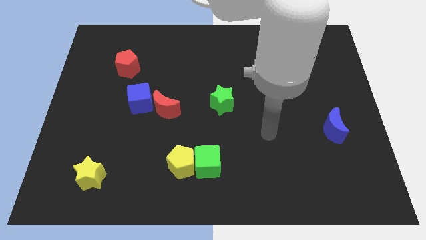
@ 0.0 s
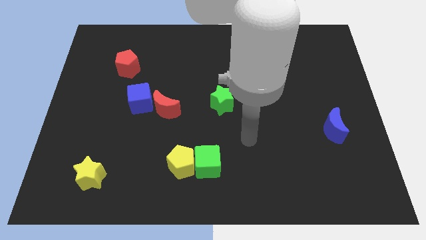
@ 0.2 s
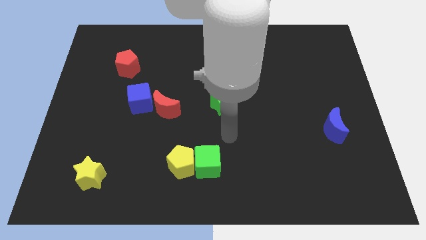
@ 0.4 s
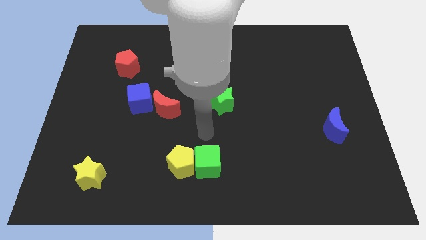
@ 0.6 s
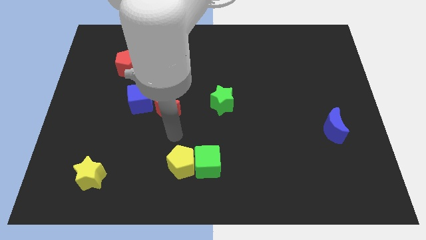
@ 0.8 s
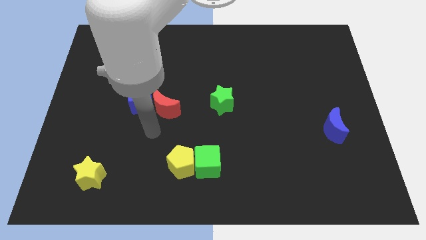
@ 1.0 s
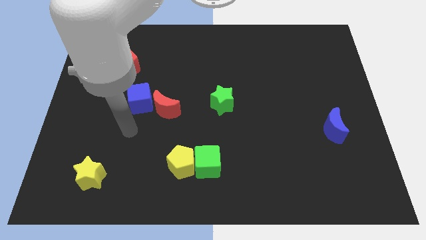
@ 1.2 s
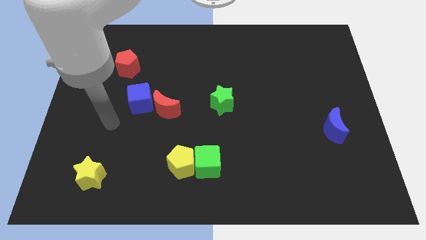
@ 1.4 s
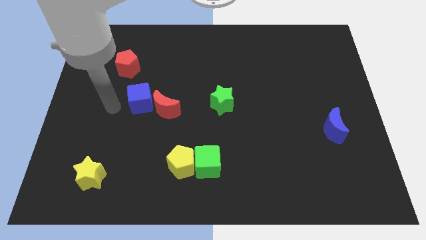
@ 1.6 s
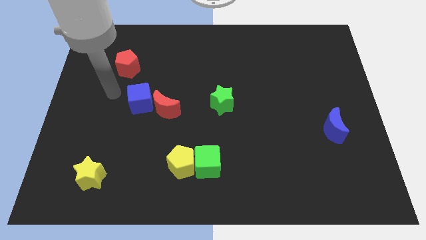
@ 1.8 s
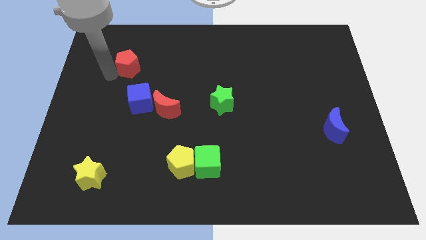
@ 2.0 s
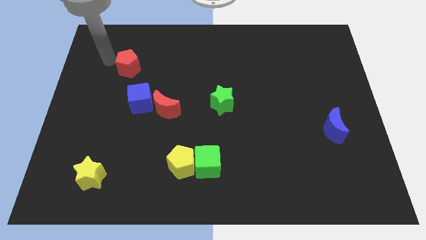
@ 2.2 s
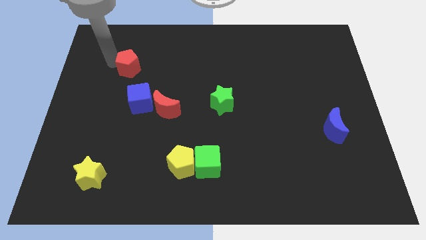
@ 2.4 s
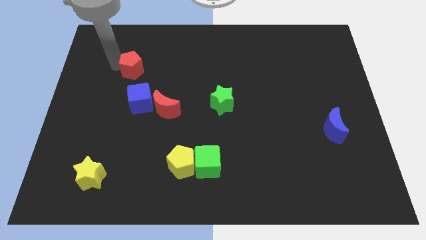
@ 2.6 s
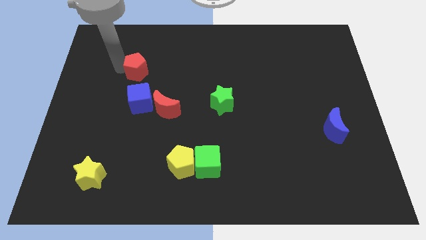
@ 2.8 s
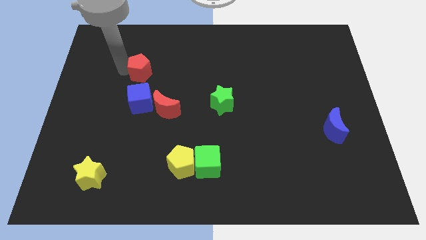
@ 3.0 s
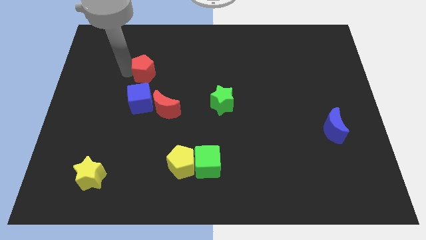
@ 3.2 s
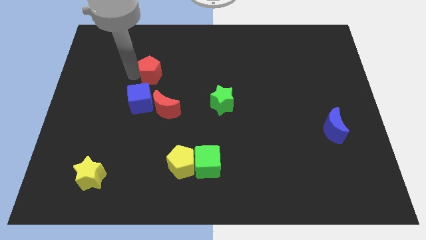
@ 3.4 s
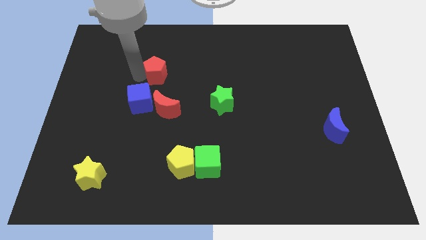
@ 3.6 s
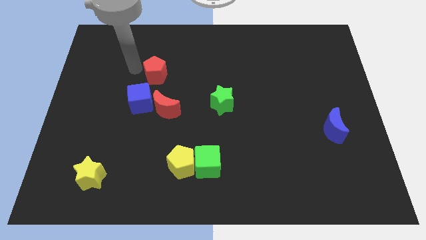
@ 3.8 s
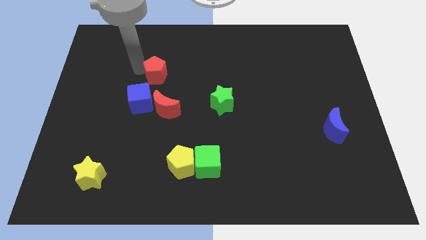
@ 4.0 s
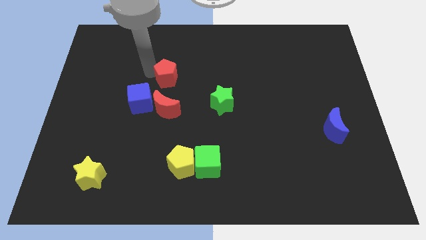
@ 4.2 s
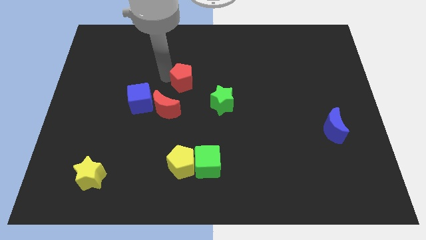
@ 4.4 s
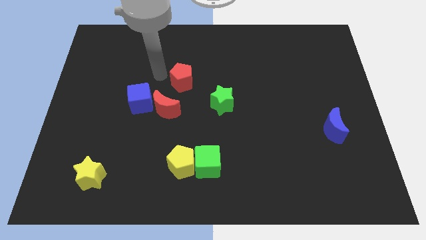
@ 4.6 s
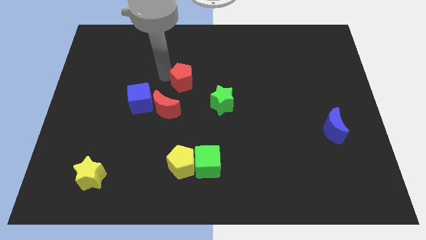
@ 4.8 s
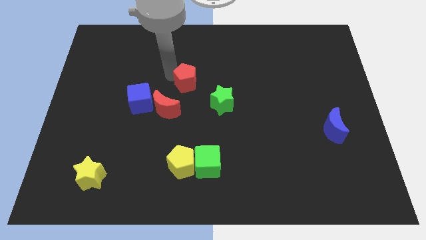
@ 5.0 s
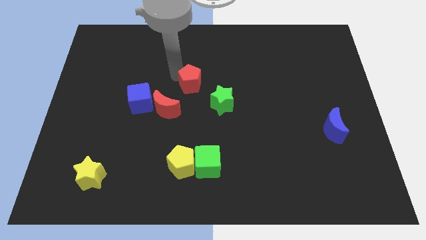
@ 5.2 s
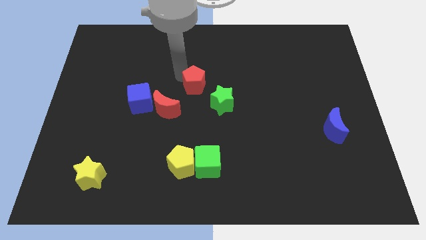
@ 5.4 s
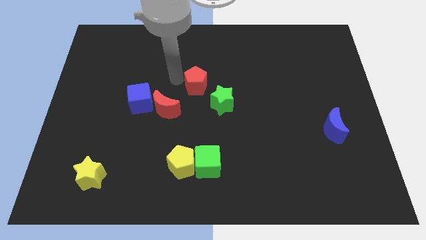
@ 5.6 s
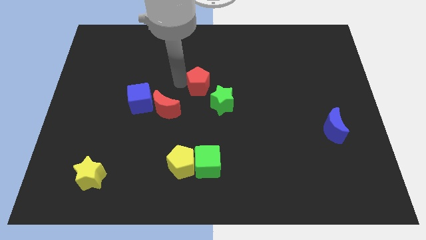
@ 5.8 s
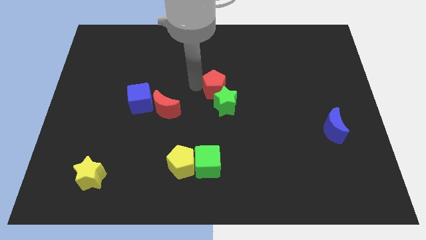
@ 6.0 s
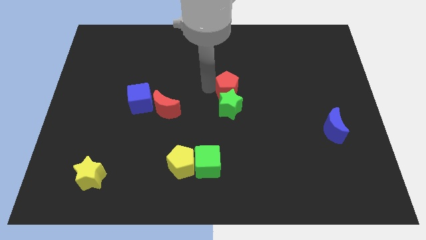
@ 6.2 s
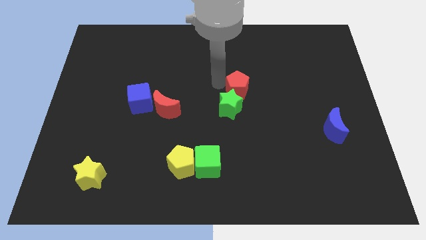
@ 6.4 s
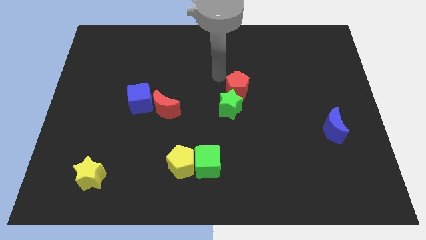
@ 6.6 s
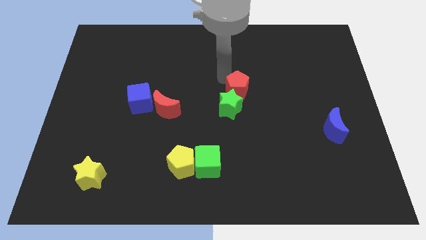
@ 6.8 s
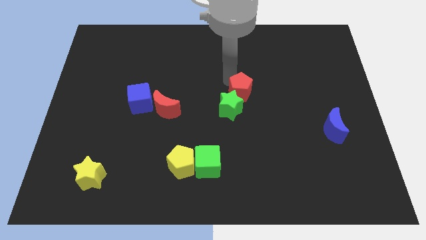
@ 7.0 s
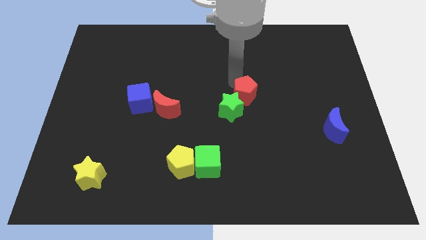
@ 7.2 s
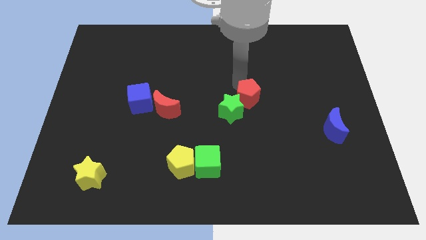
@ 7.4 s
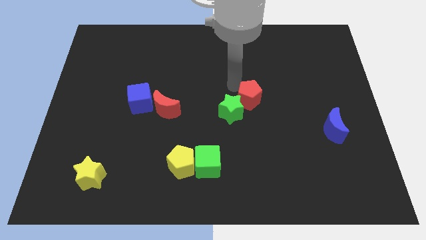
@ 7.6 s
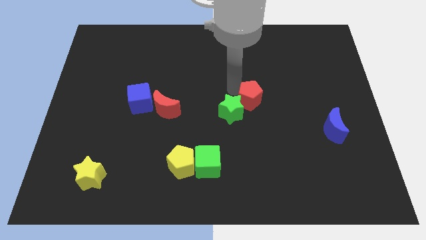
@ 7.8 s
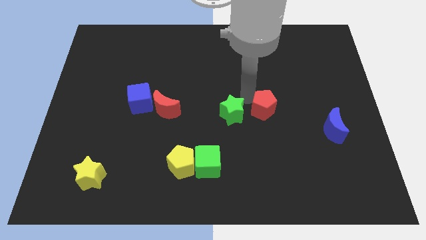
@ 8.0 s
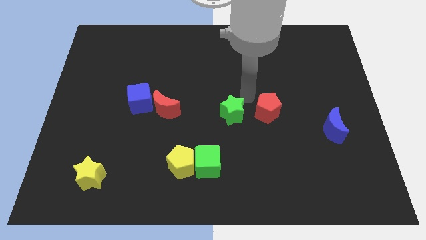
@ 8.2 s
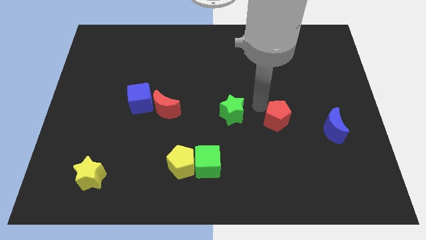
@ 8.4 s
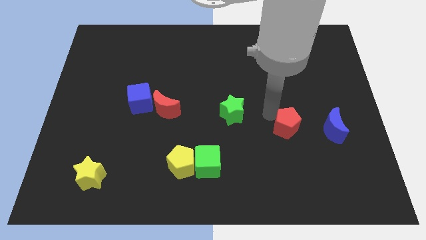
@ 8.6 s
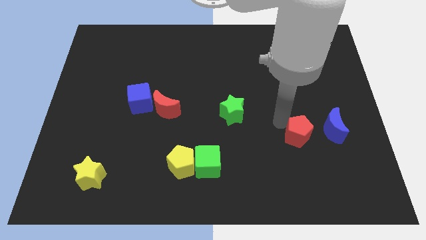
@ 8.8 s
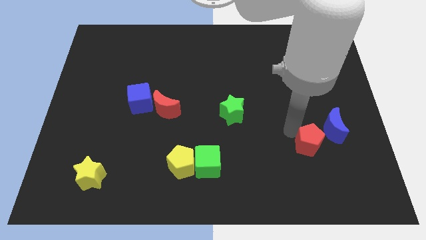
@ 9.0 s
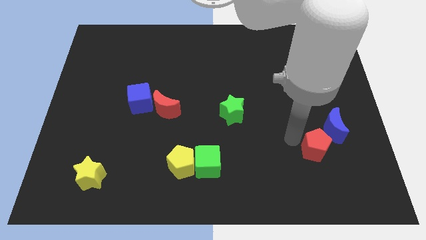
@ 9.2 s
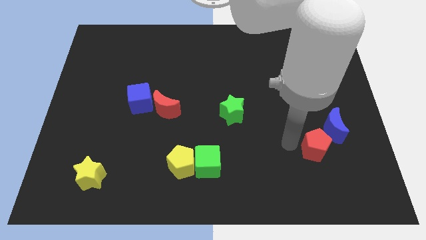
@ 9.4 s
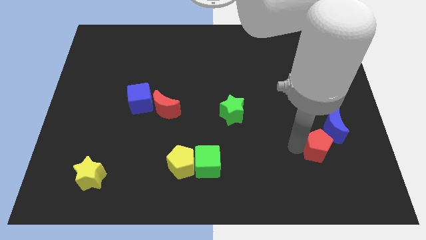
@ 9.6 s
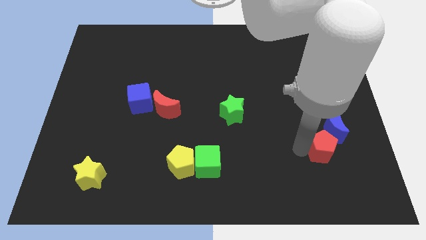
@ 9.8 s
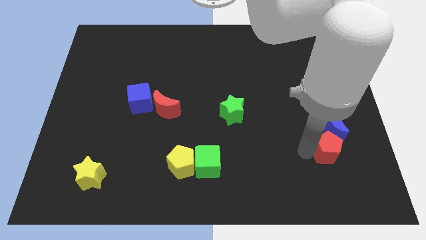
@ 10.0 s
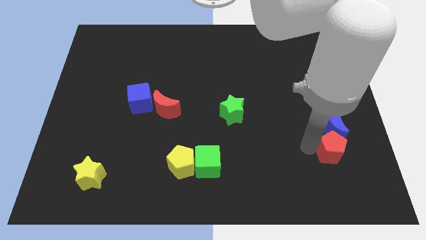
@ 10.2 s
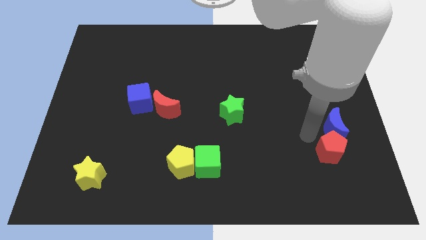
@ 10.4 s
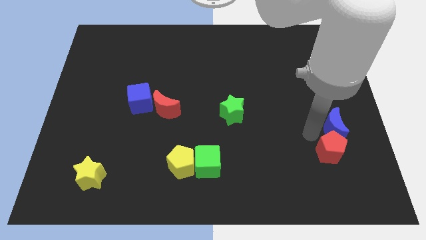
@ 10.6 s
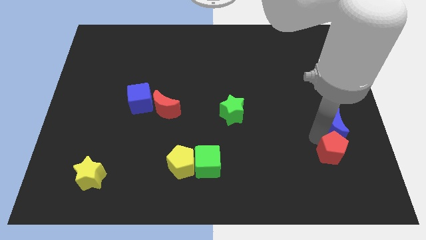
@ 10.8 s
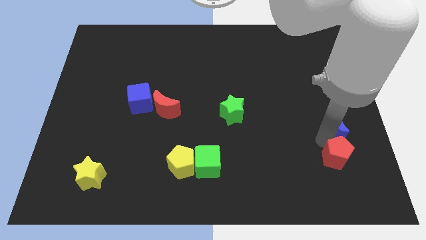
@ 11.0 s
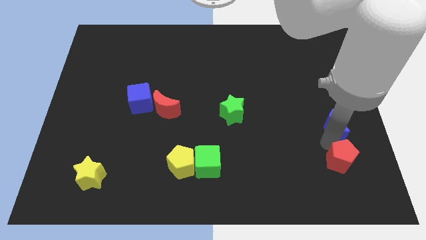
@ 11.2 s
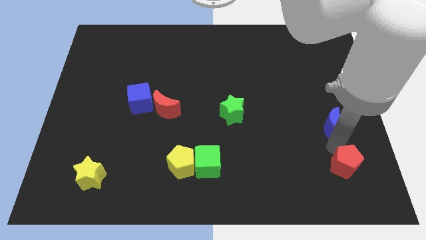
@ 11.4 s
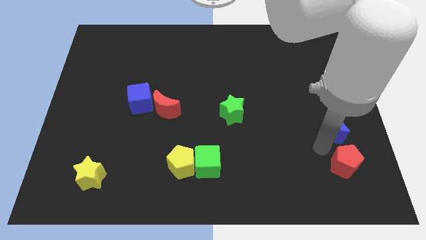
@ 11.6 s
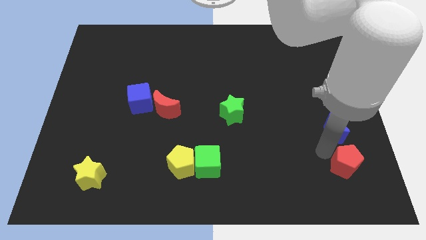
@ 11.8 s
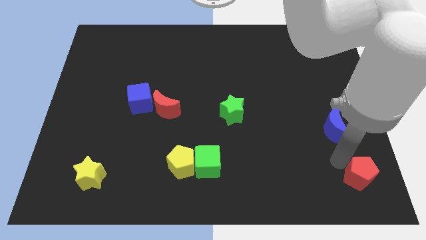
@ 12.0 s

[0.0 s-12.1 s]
push the red pentagon to the bottom right corner
